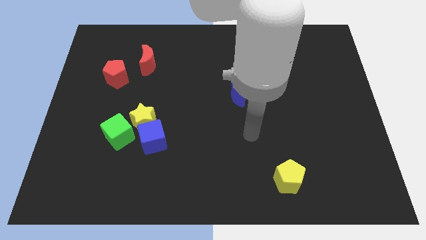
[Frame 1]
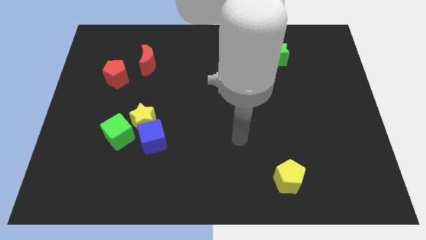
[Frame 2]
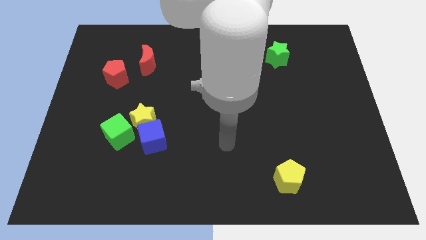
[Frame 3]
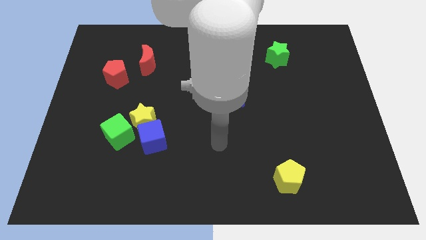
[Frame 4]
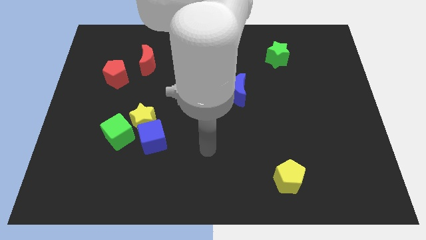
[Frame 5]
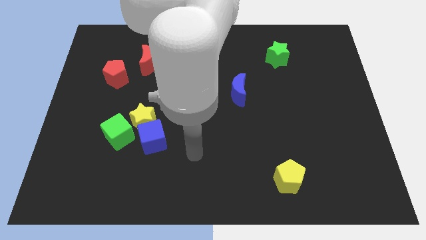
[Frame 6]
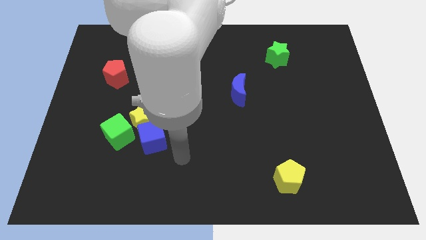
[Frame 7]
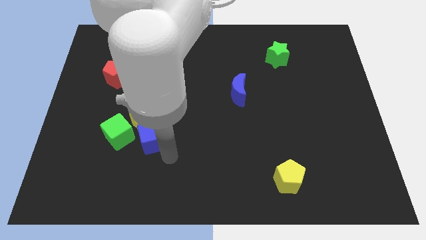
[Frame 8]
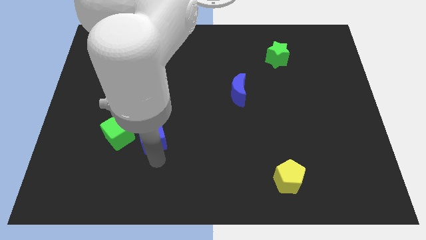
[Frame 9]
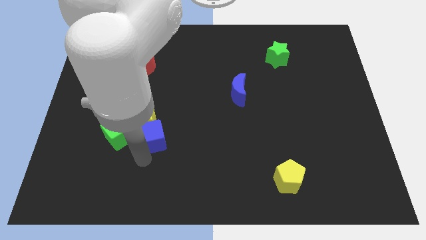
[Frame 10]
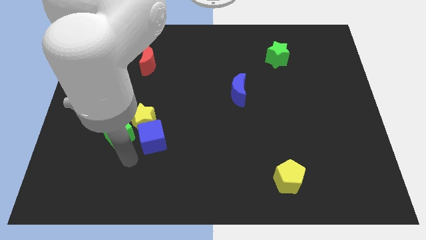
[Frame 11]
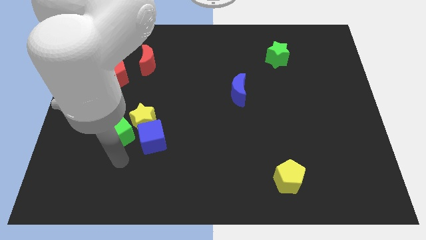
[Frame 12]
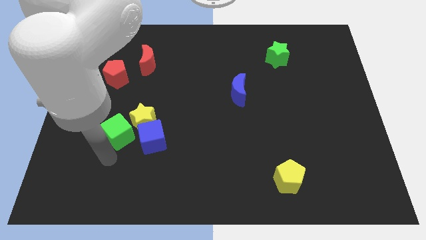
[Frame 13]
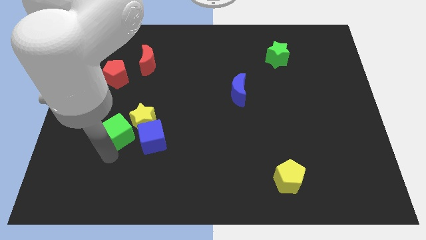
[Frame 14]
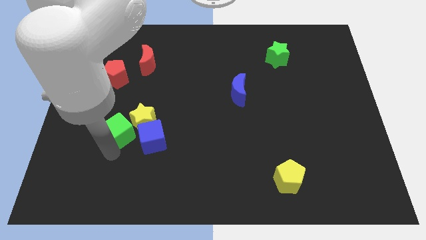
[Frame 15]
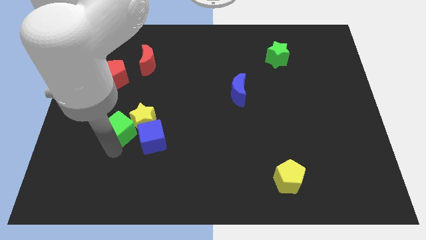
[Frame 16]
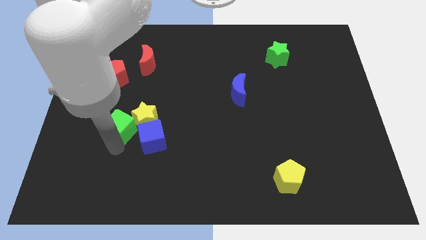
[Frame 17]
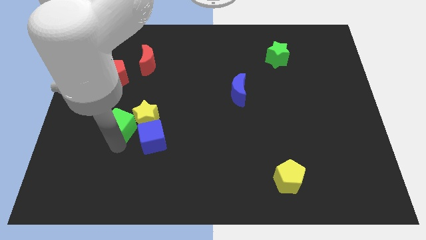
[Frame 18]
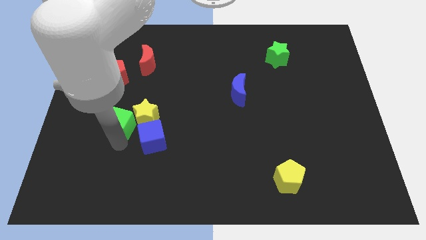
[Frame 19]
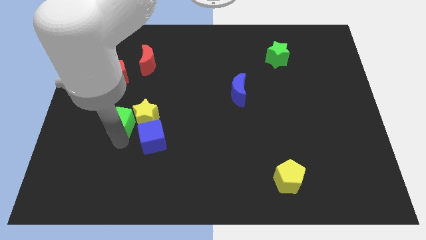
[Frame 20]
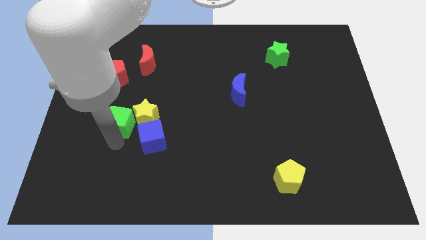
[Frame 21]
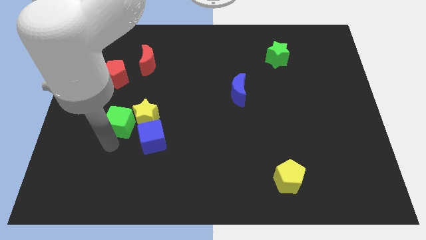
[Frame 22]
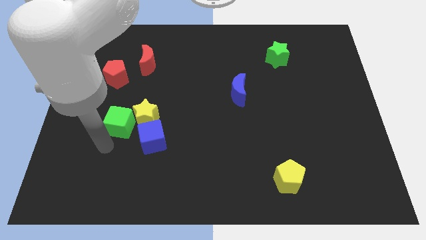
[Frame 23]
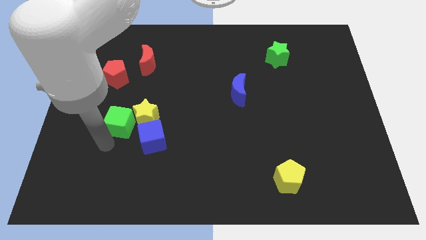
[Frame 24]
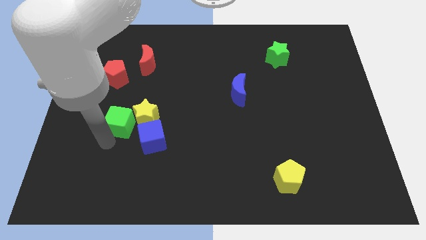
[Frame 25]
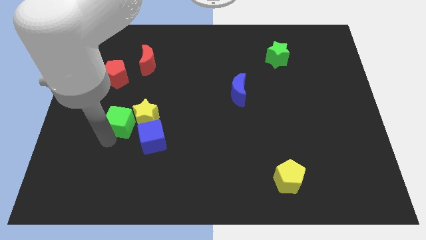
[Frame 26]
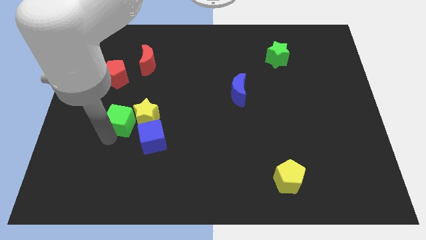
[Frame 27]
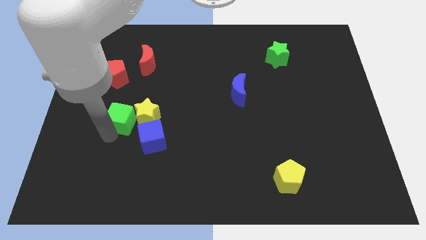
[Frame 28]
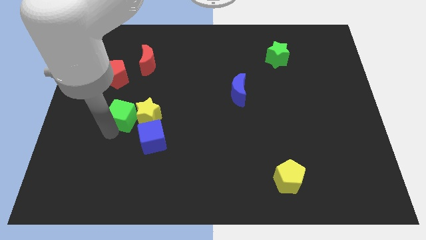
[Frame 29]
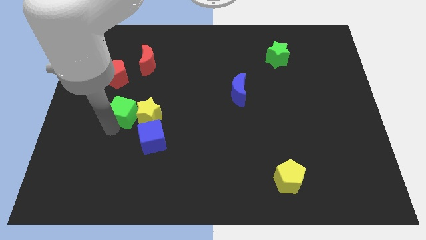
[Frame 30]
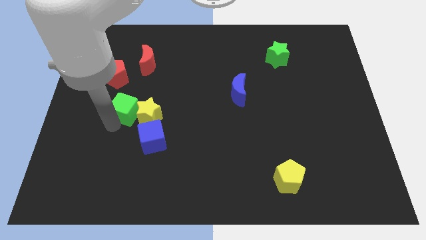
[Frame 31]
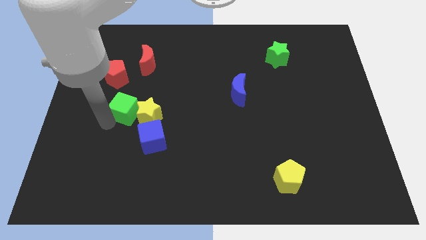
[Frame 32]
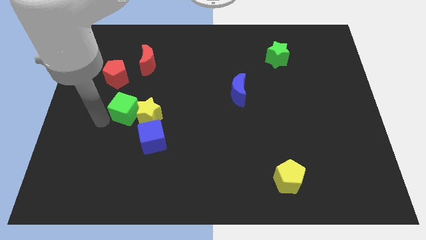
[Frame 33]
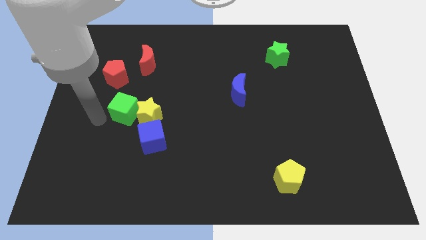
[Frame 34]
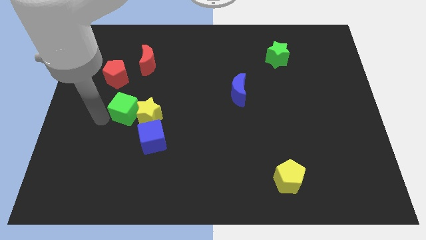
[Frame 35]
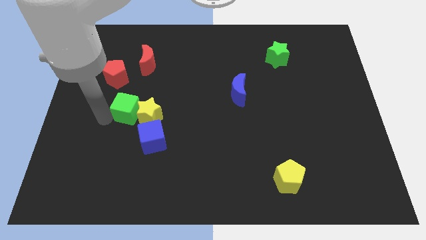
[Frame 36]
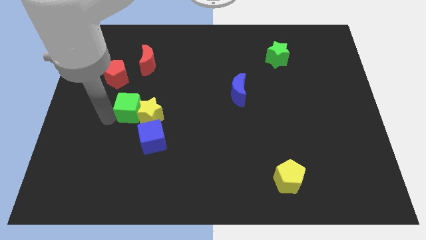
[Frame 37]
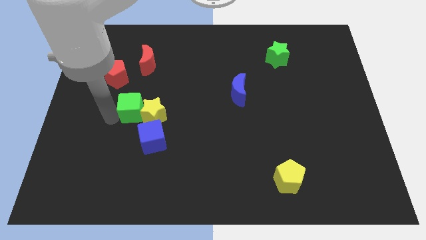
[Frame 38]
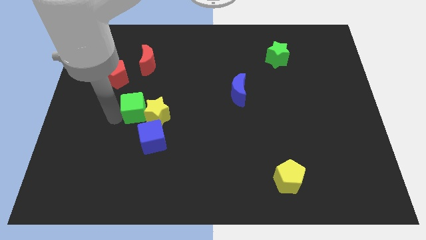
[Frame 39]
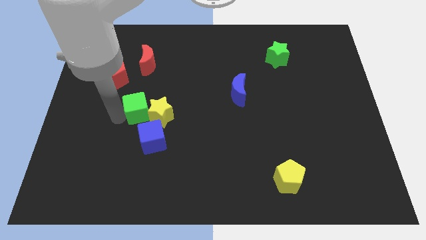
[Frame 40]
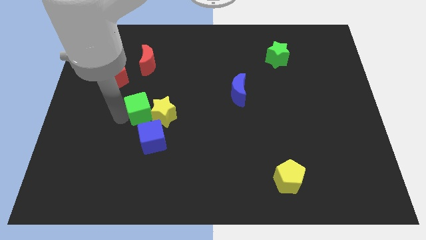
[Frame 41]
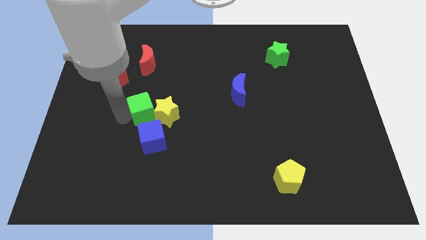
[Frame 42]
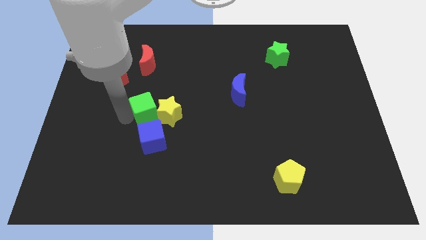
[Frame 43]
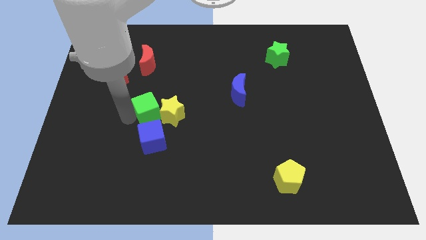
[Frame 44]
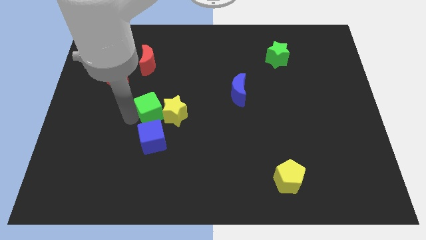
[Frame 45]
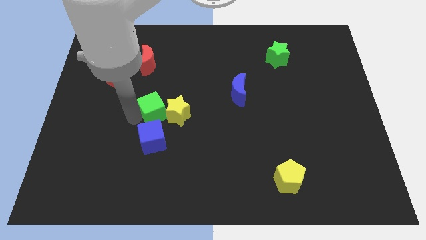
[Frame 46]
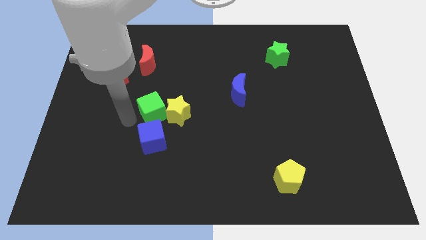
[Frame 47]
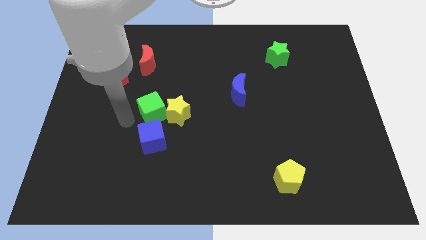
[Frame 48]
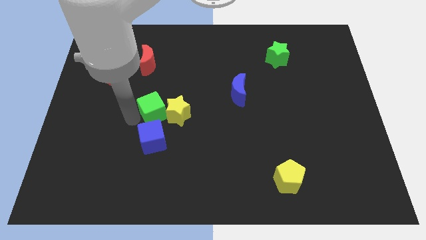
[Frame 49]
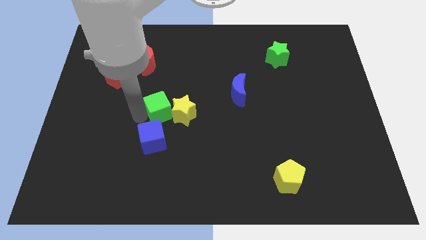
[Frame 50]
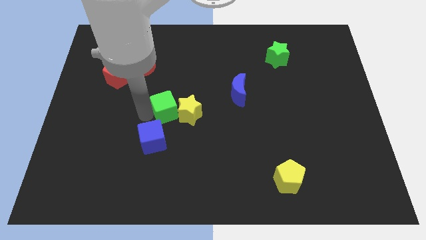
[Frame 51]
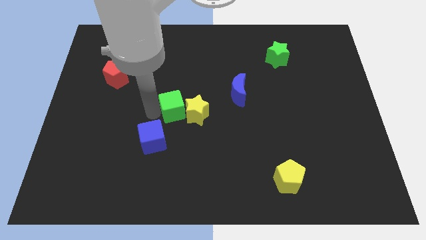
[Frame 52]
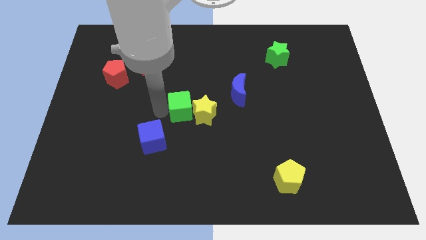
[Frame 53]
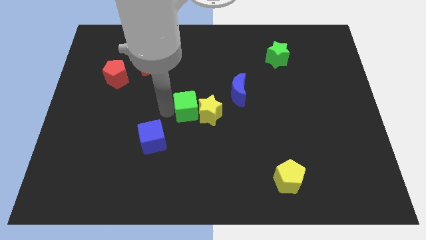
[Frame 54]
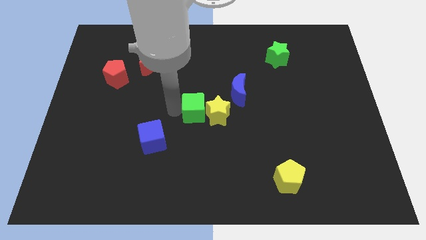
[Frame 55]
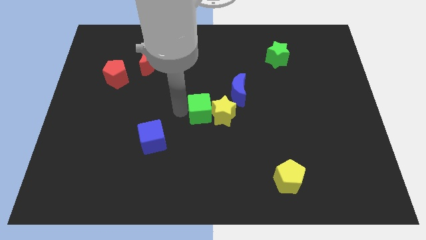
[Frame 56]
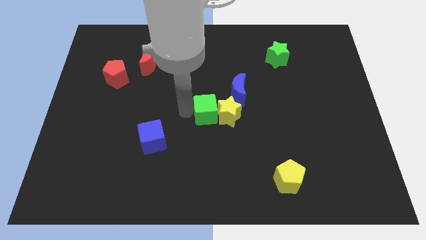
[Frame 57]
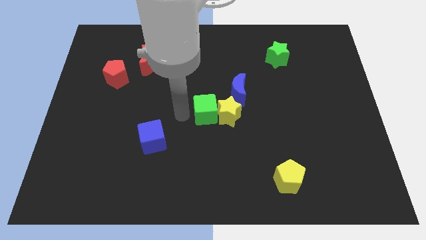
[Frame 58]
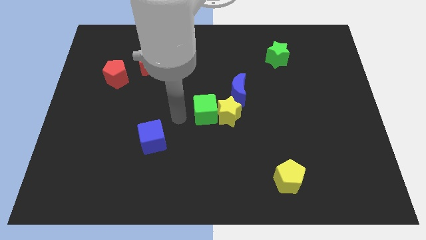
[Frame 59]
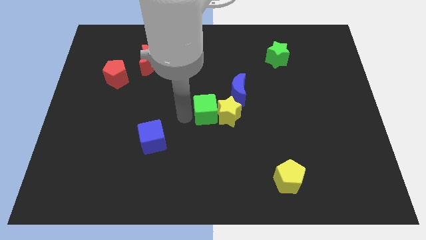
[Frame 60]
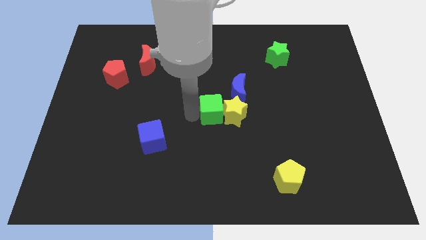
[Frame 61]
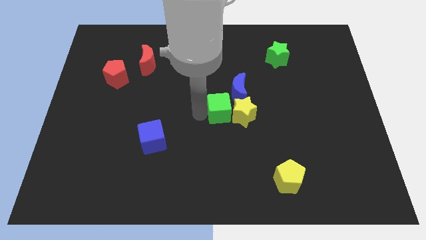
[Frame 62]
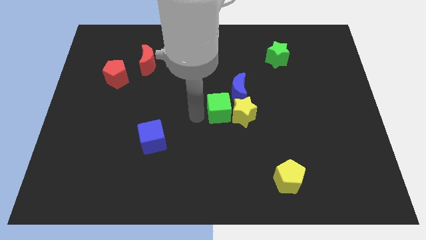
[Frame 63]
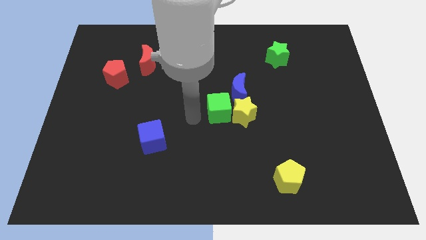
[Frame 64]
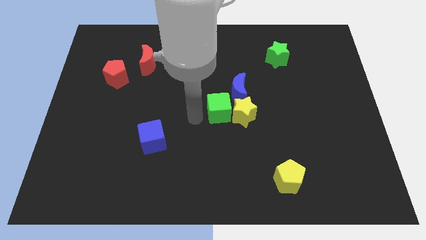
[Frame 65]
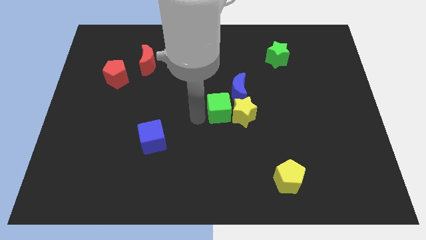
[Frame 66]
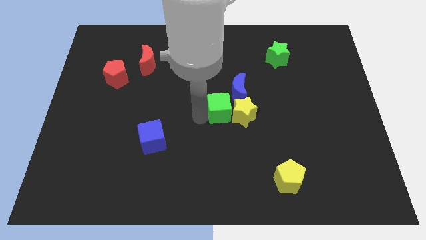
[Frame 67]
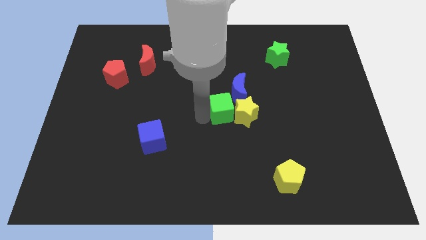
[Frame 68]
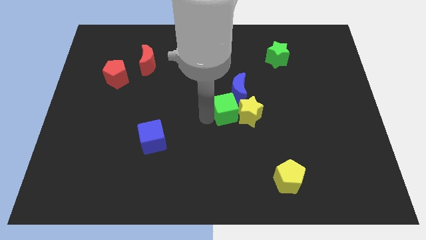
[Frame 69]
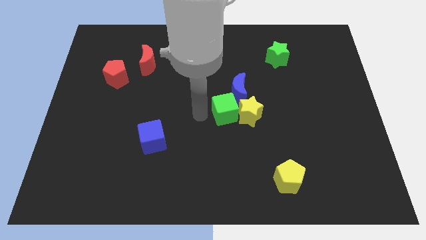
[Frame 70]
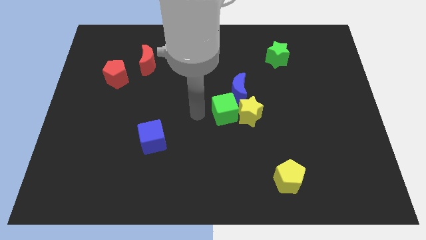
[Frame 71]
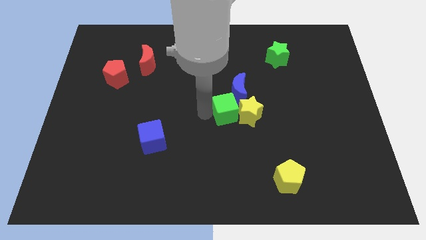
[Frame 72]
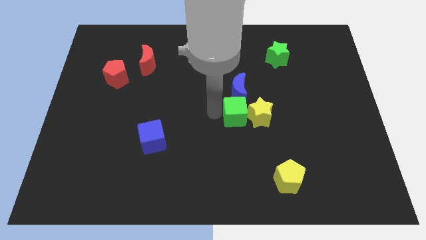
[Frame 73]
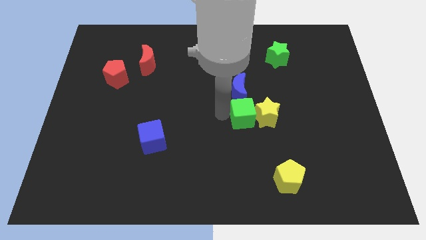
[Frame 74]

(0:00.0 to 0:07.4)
put the green cube to the bottom right of the blue moon
